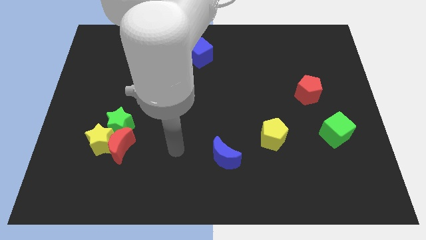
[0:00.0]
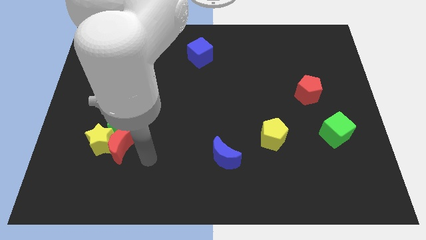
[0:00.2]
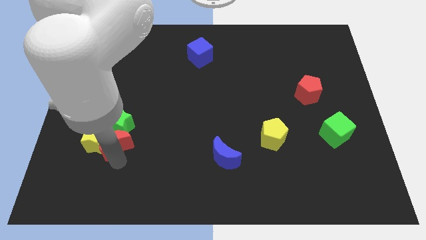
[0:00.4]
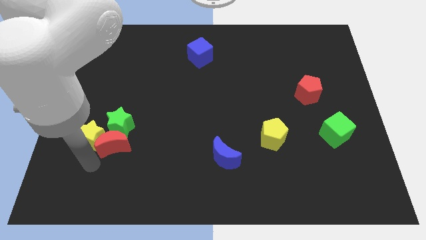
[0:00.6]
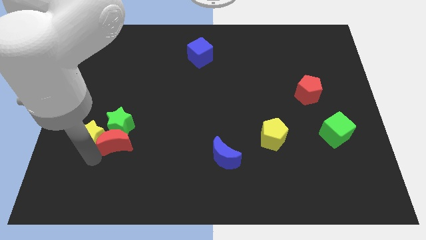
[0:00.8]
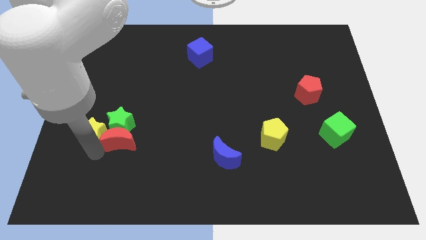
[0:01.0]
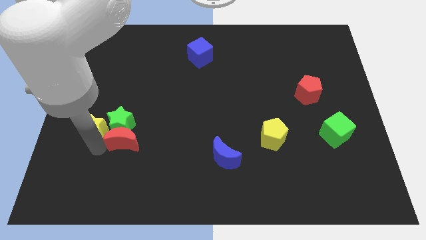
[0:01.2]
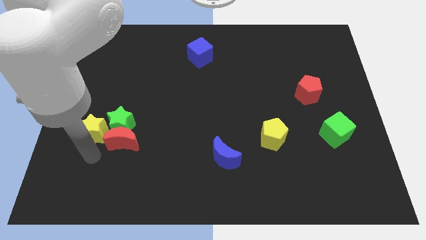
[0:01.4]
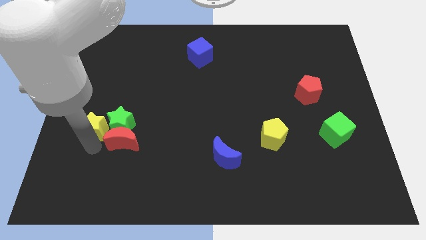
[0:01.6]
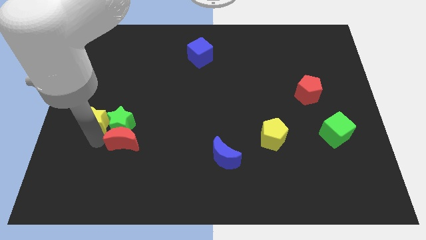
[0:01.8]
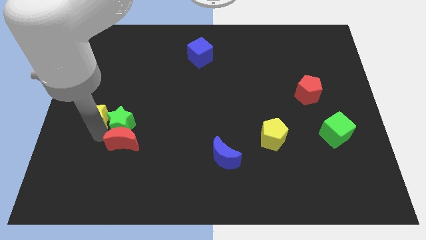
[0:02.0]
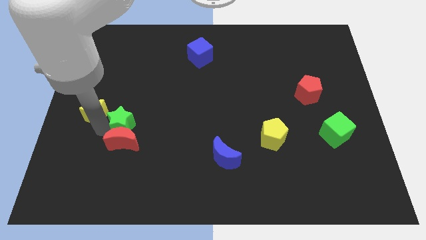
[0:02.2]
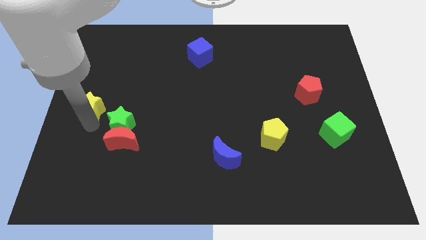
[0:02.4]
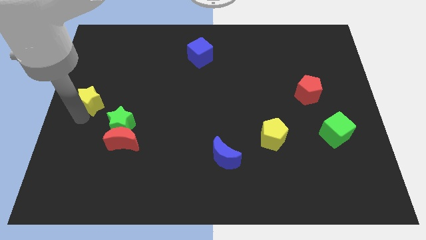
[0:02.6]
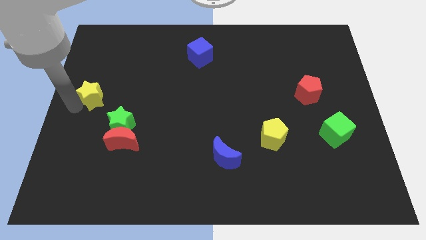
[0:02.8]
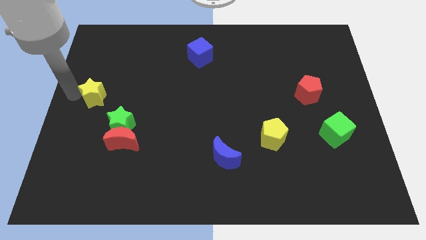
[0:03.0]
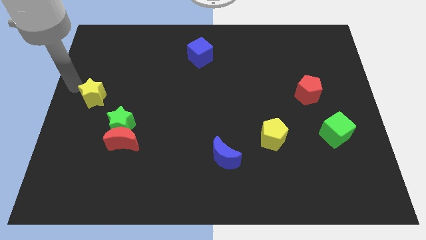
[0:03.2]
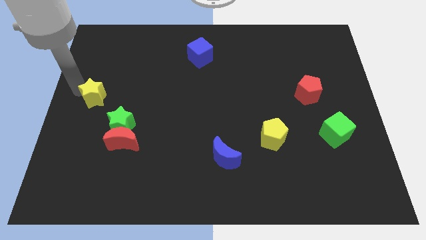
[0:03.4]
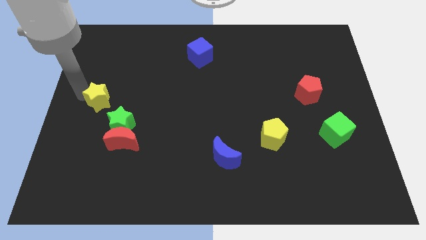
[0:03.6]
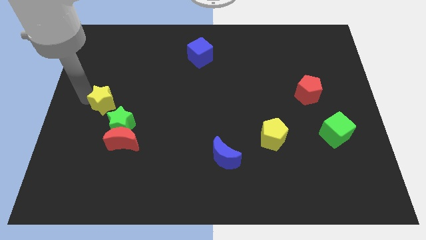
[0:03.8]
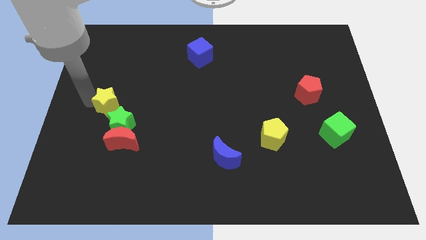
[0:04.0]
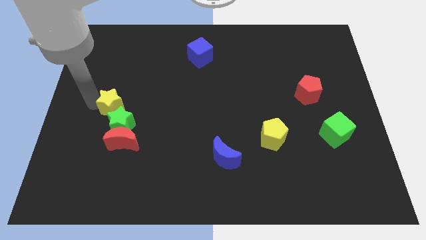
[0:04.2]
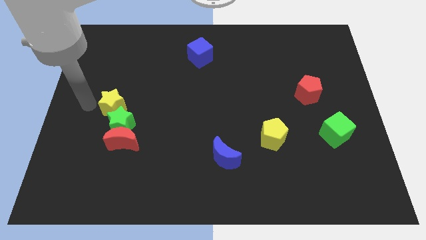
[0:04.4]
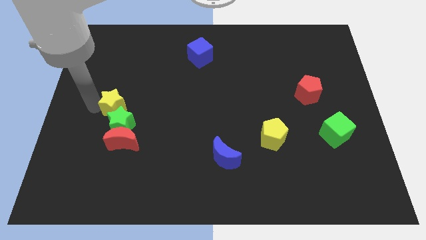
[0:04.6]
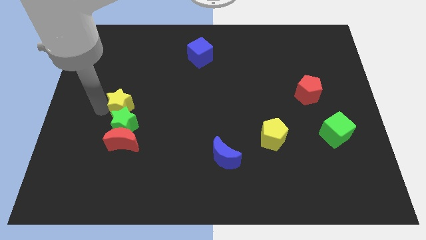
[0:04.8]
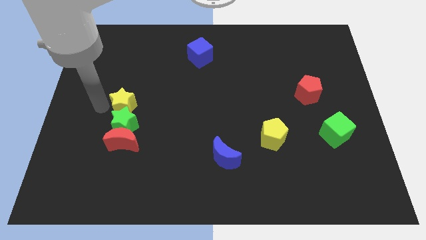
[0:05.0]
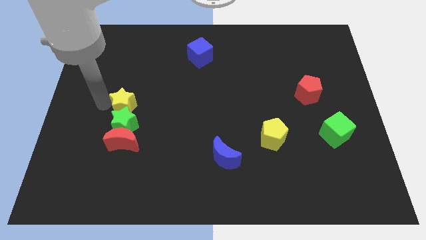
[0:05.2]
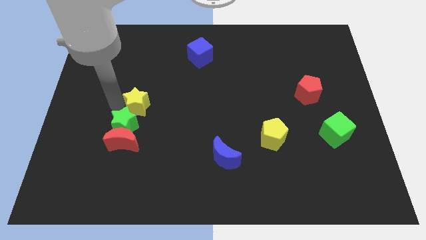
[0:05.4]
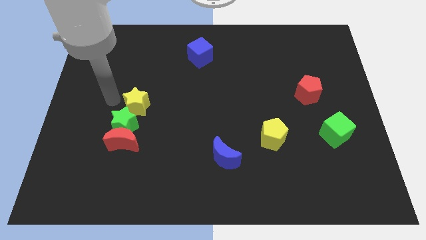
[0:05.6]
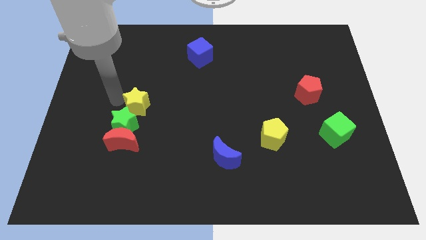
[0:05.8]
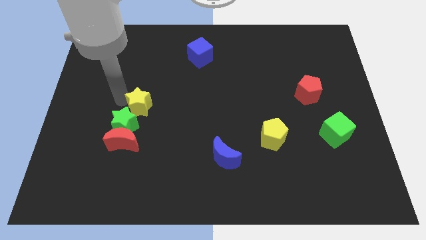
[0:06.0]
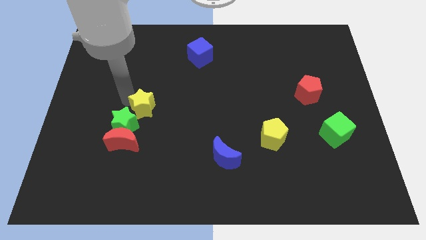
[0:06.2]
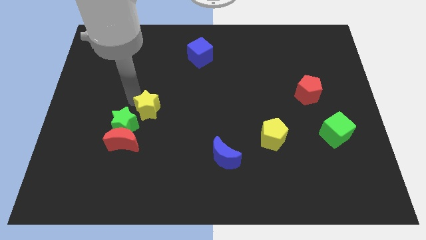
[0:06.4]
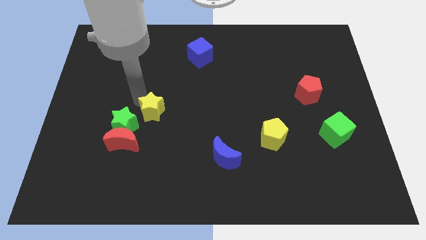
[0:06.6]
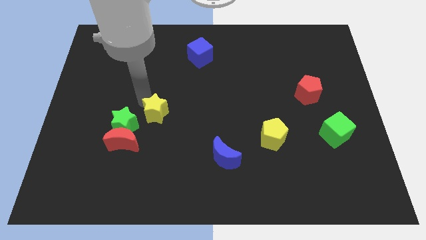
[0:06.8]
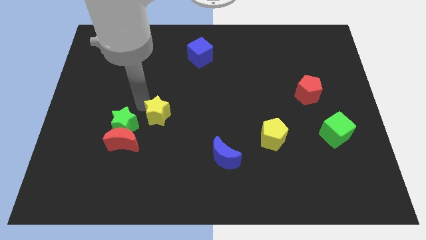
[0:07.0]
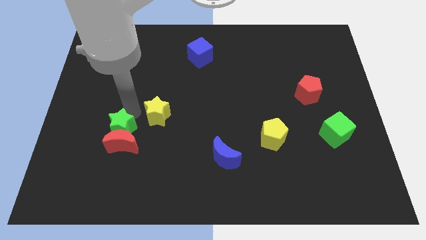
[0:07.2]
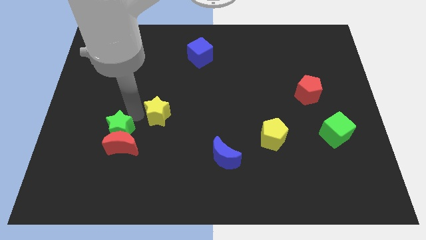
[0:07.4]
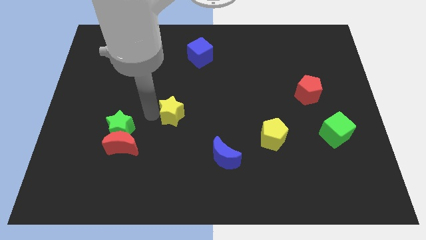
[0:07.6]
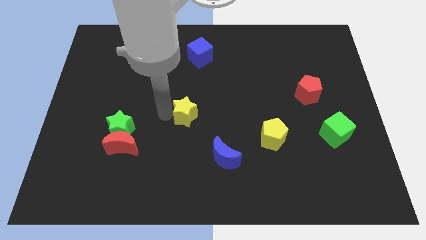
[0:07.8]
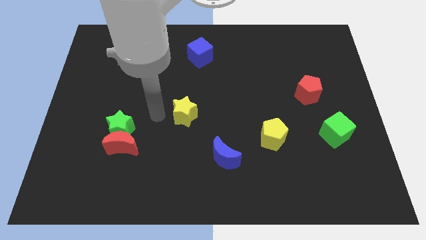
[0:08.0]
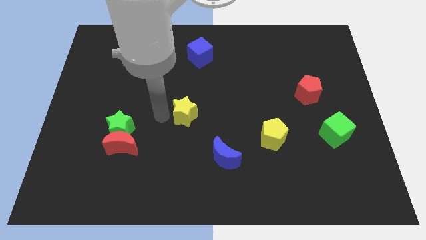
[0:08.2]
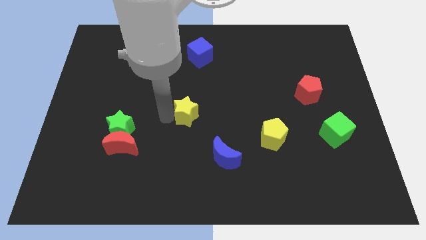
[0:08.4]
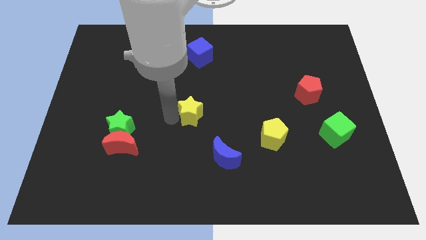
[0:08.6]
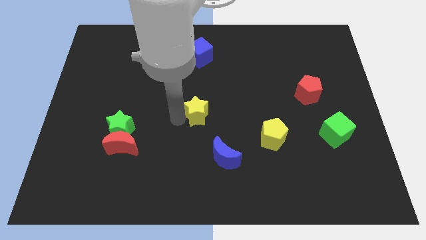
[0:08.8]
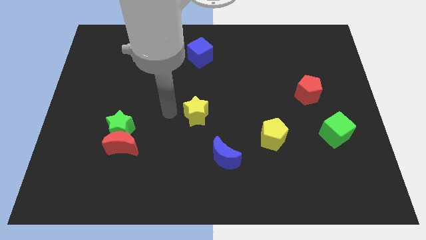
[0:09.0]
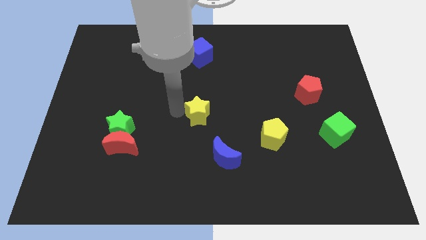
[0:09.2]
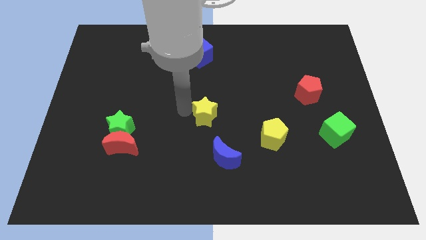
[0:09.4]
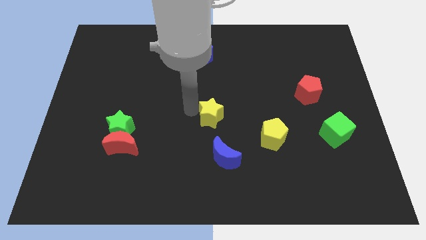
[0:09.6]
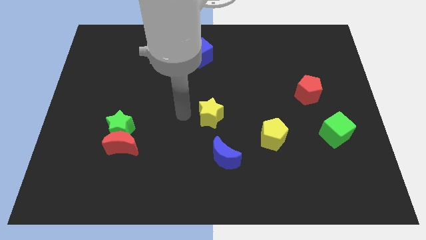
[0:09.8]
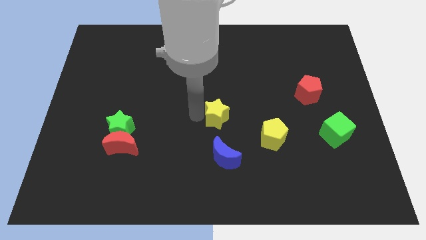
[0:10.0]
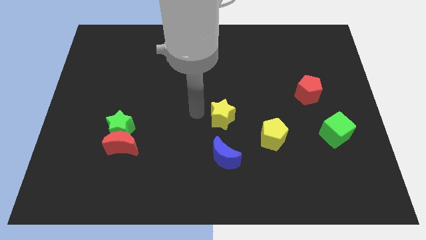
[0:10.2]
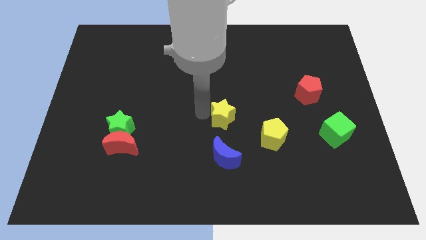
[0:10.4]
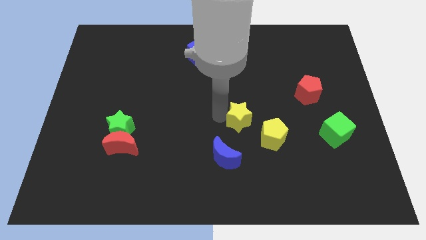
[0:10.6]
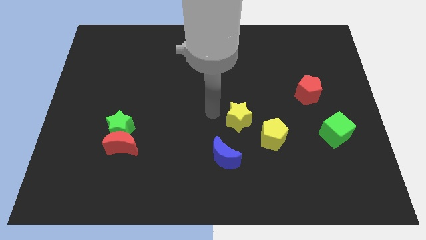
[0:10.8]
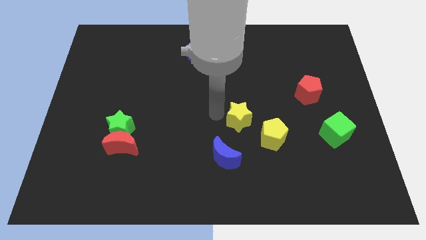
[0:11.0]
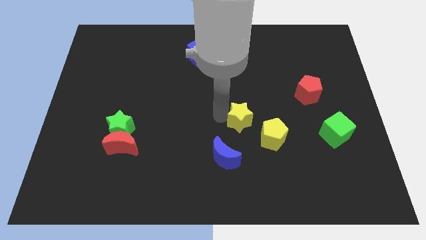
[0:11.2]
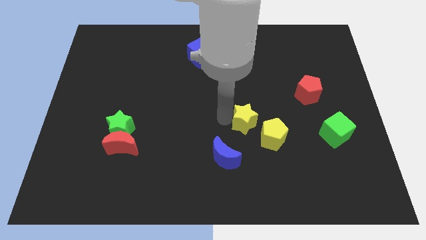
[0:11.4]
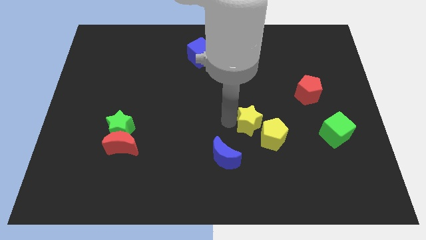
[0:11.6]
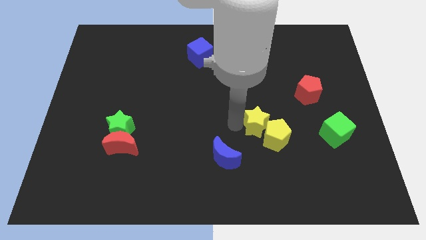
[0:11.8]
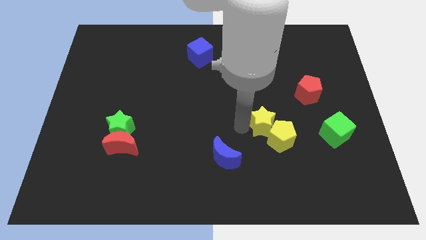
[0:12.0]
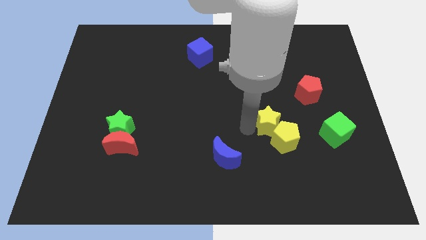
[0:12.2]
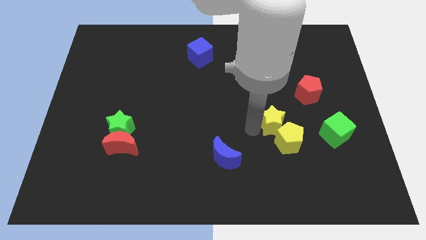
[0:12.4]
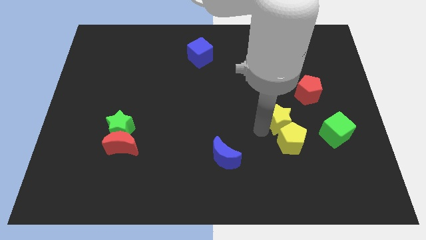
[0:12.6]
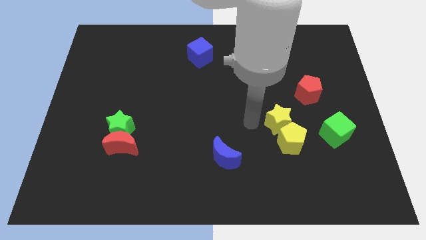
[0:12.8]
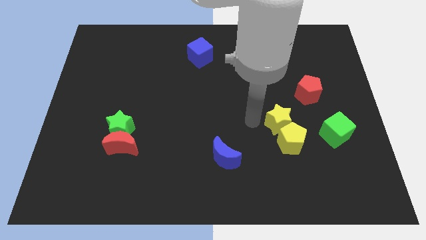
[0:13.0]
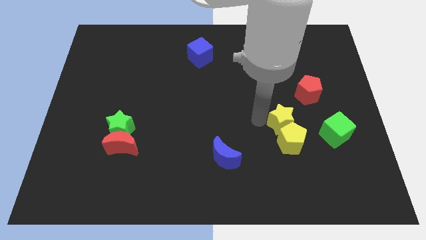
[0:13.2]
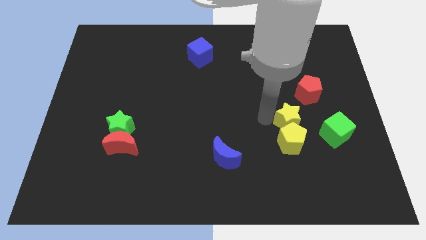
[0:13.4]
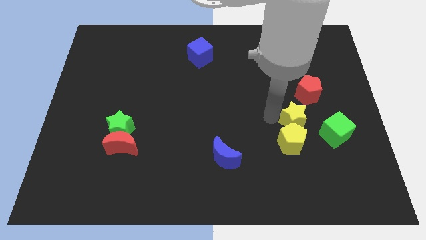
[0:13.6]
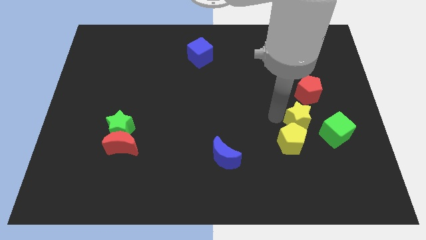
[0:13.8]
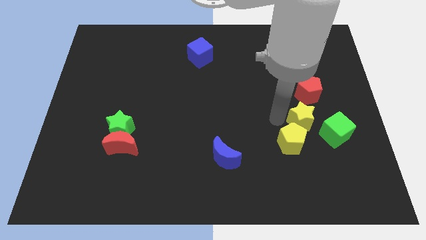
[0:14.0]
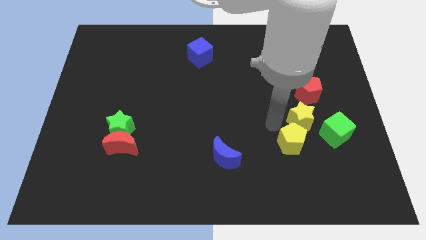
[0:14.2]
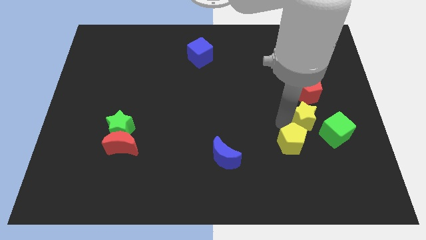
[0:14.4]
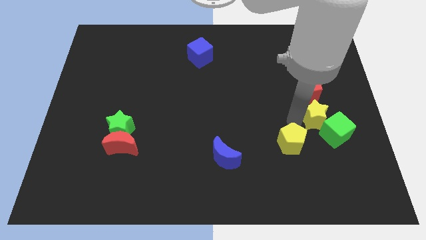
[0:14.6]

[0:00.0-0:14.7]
push the yellow star to the top side of the green cube

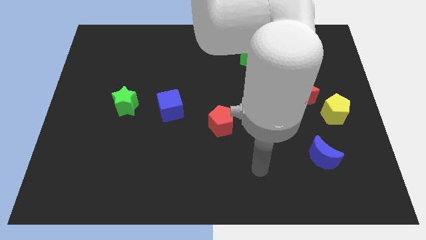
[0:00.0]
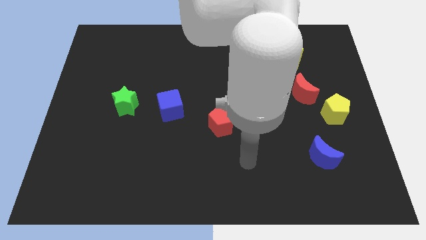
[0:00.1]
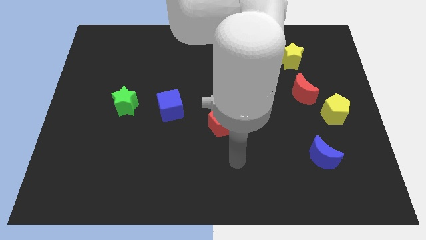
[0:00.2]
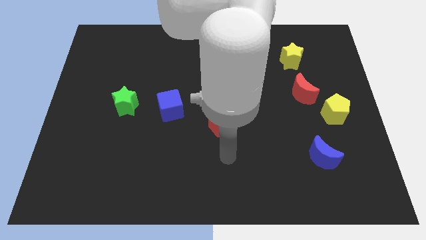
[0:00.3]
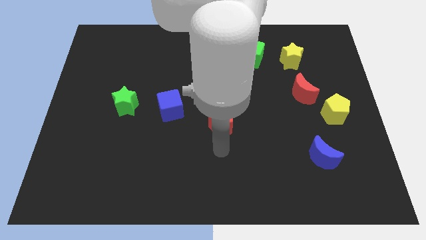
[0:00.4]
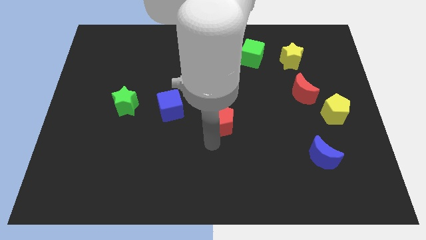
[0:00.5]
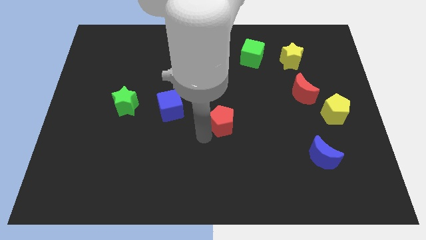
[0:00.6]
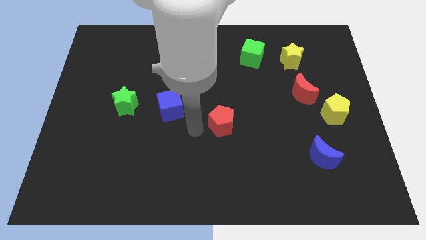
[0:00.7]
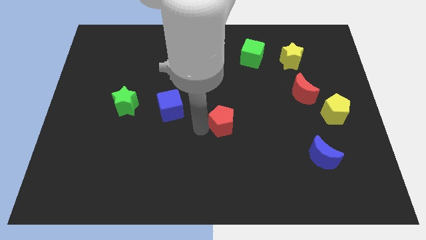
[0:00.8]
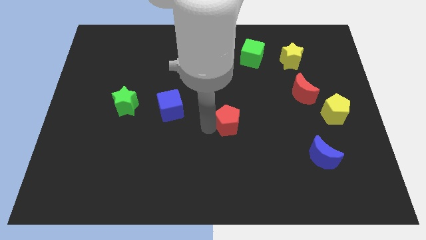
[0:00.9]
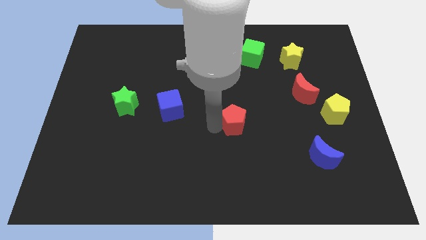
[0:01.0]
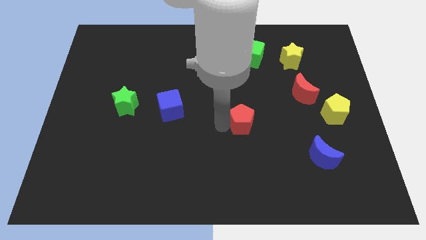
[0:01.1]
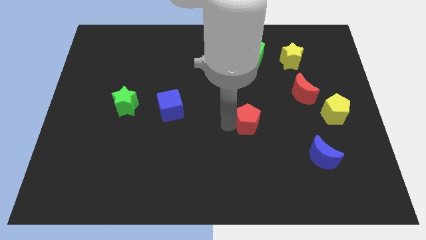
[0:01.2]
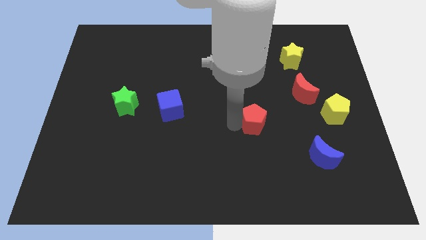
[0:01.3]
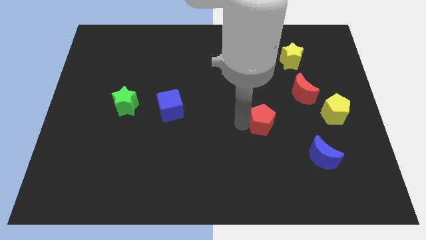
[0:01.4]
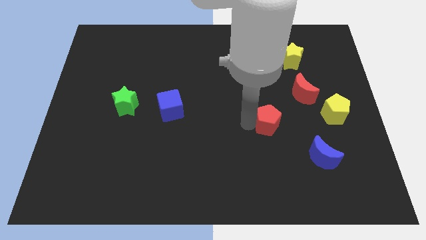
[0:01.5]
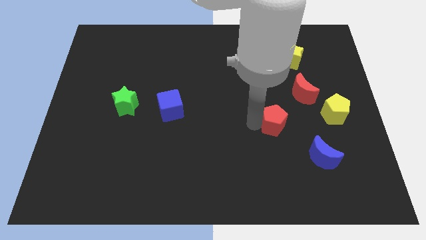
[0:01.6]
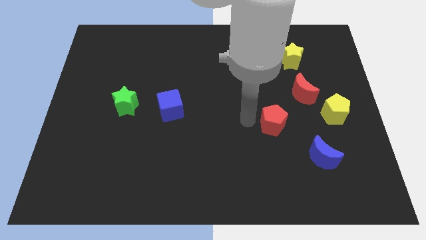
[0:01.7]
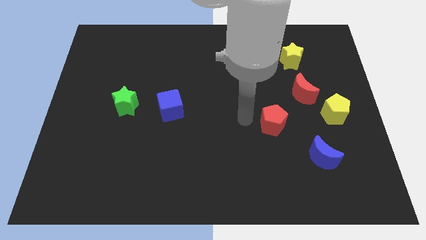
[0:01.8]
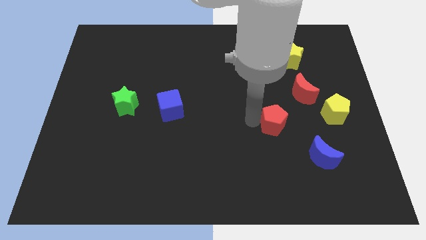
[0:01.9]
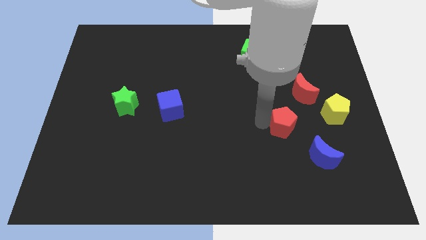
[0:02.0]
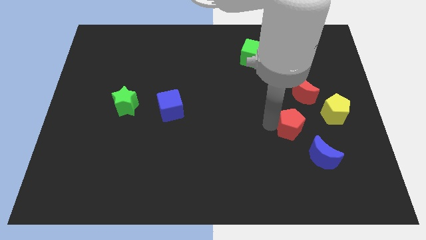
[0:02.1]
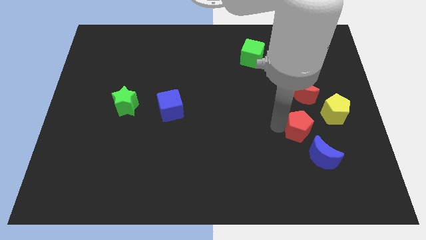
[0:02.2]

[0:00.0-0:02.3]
put the red pentagon to the bottom left side of the yellow pentagon
